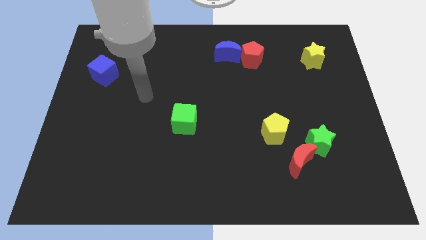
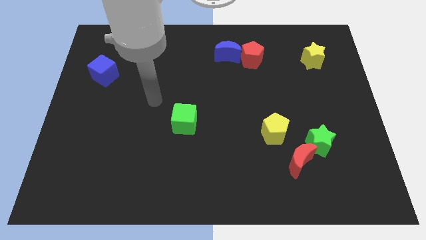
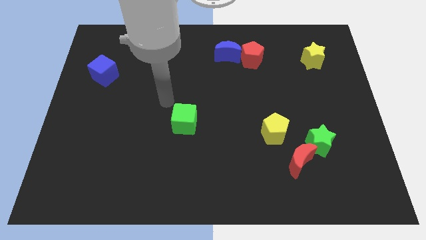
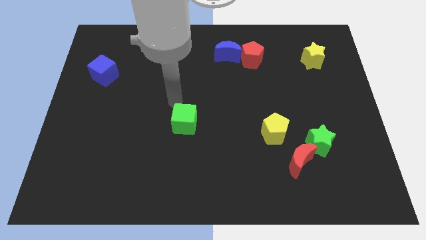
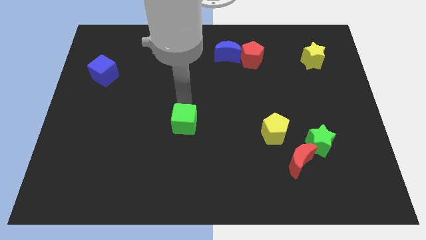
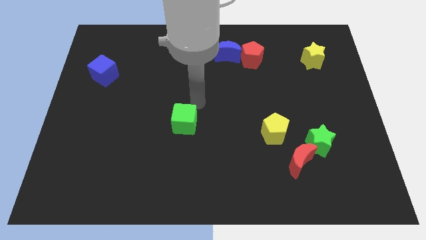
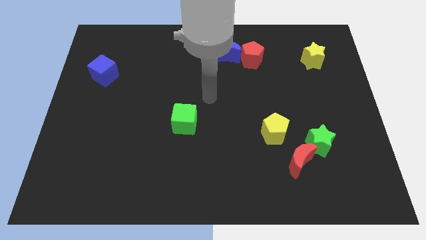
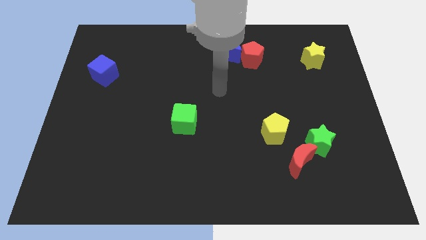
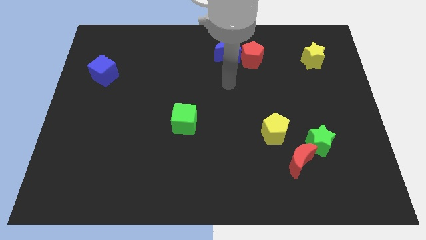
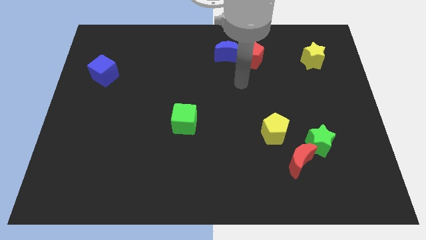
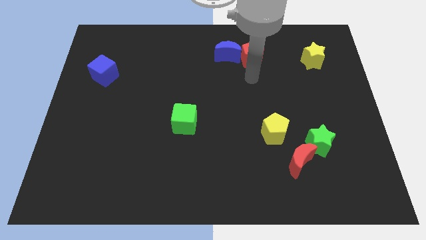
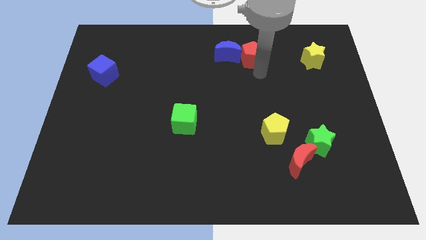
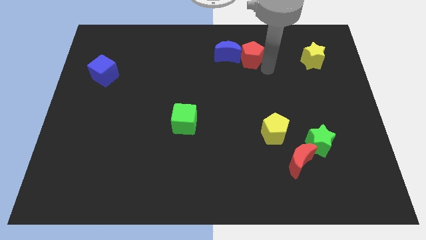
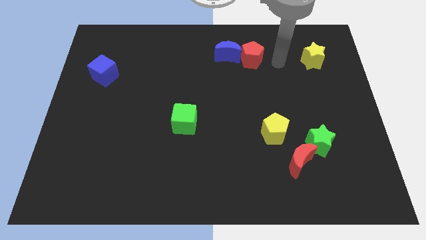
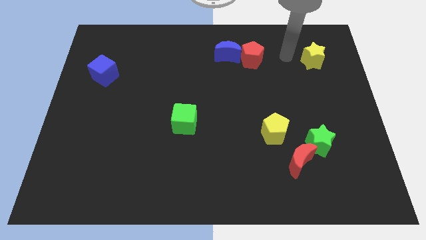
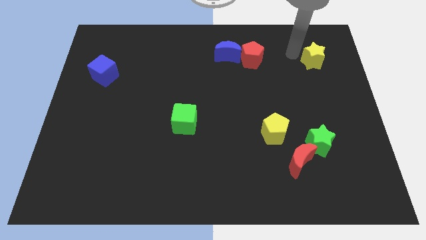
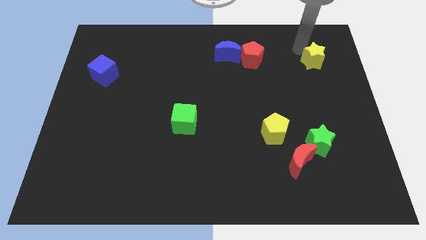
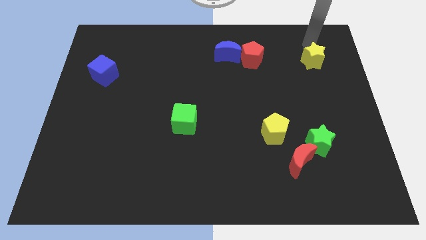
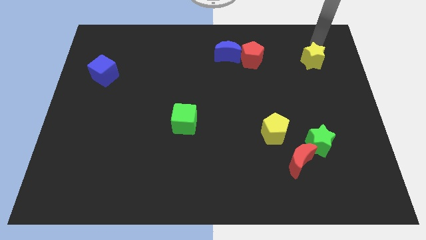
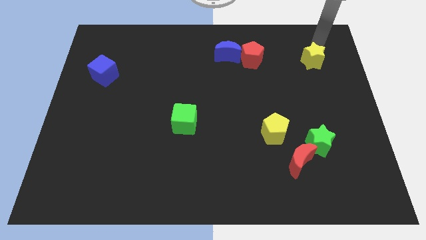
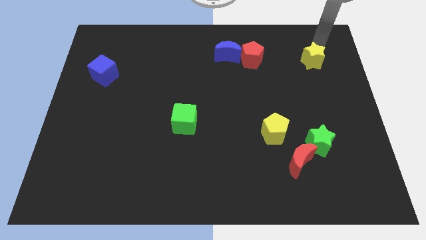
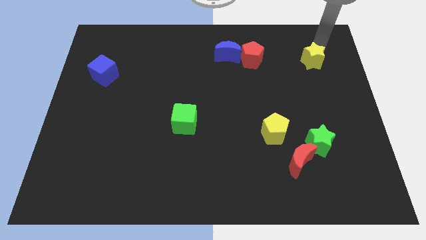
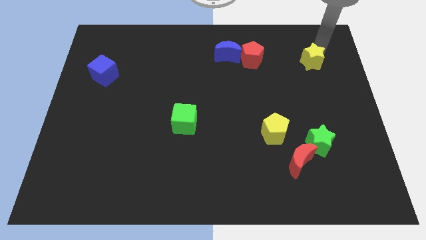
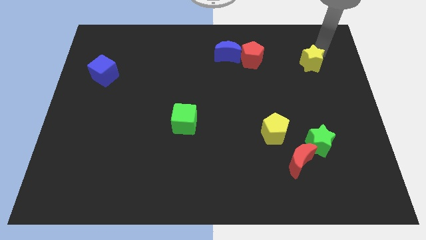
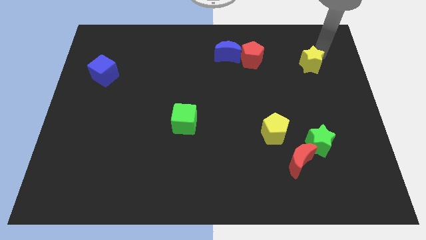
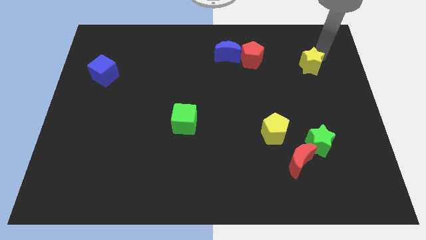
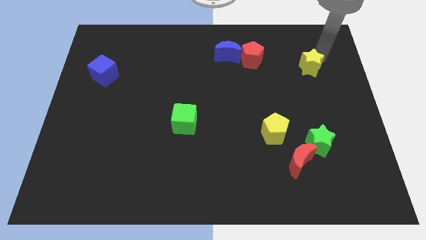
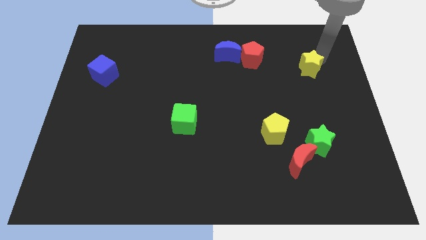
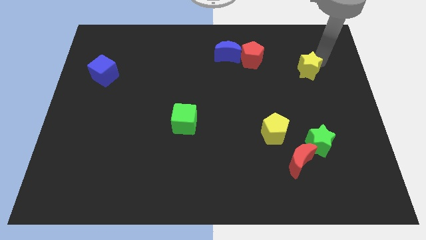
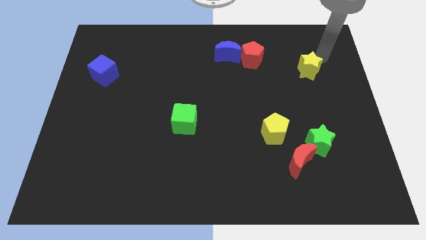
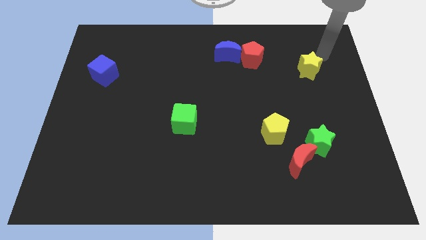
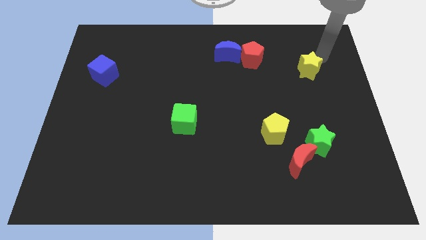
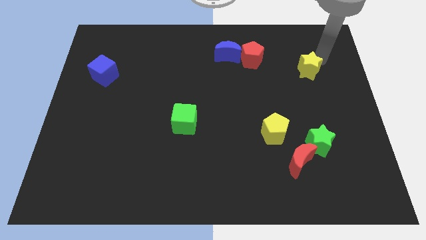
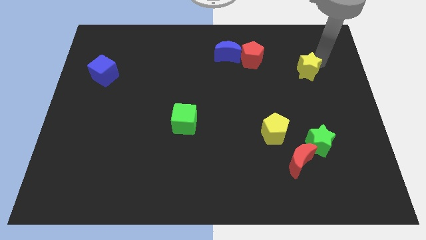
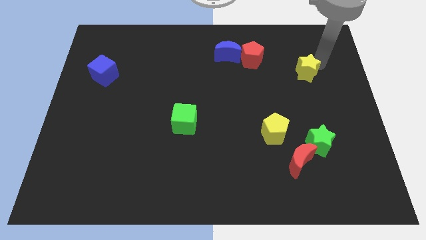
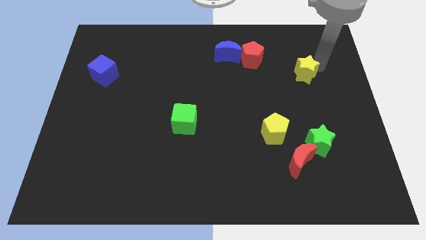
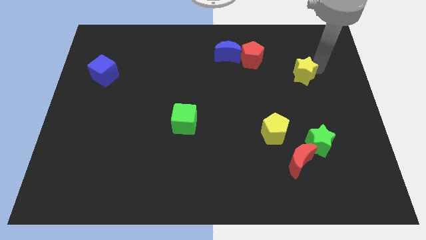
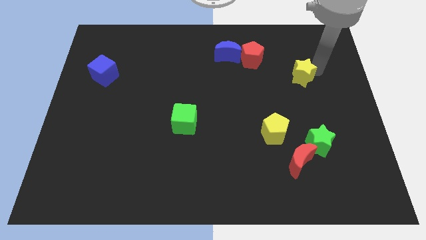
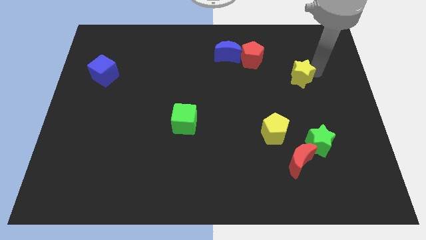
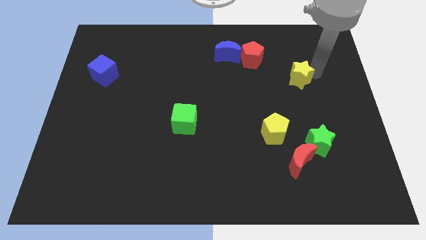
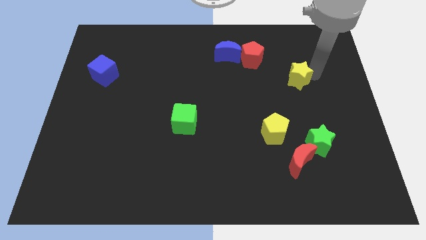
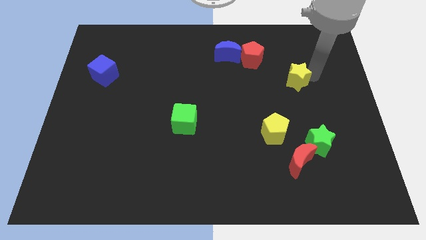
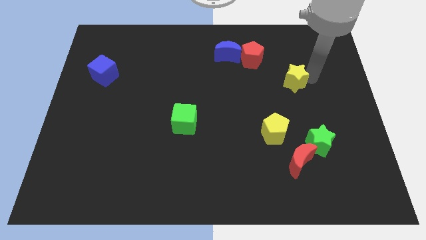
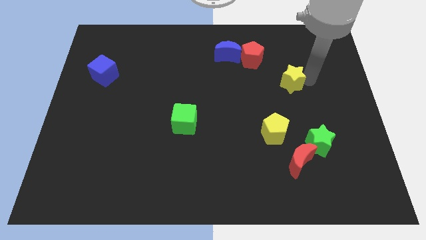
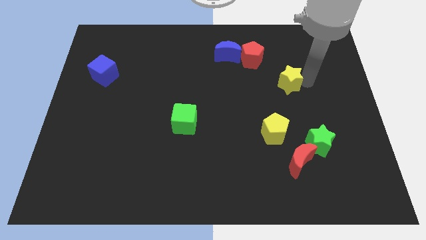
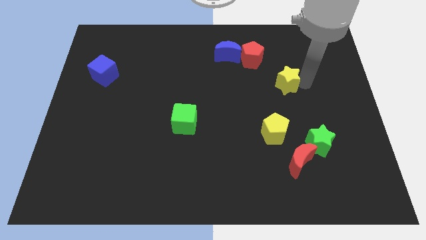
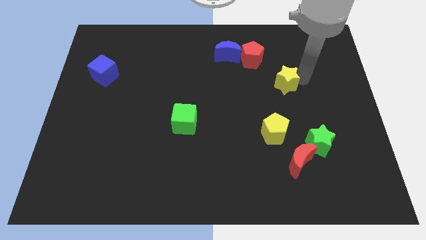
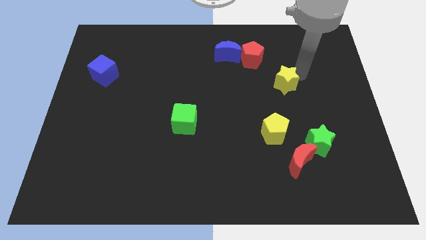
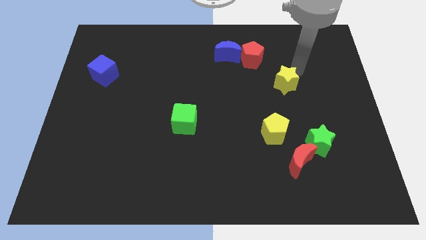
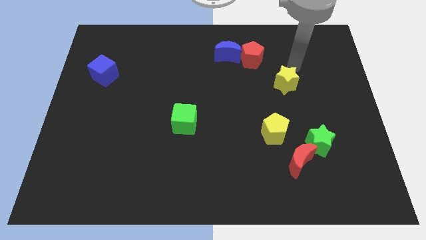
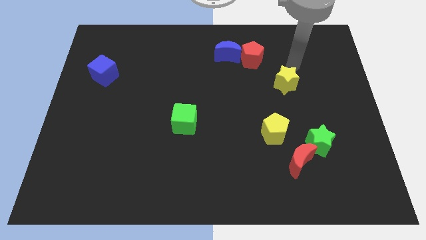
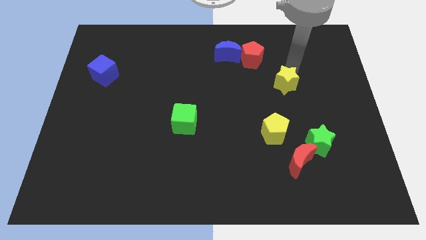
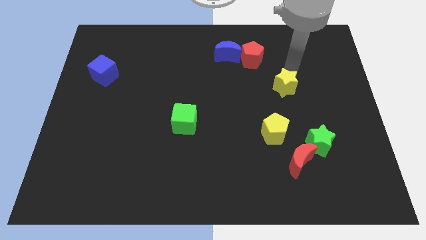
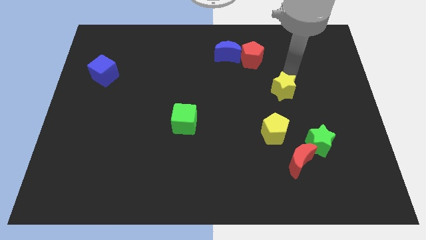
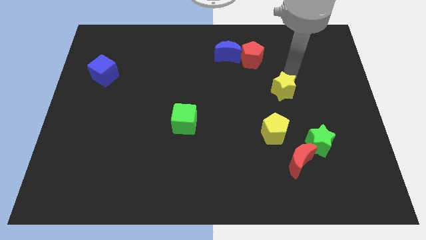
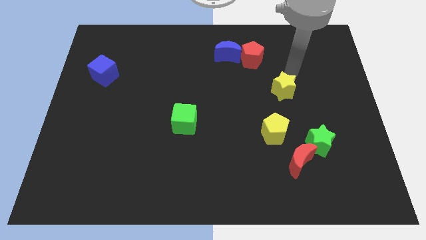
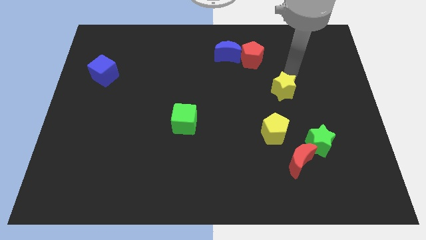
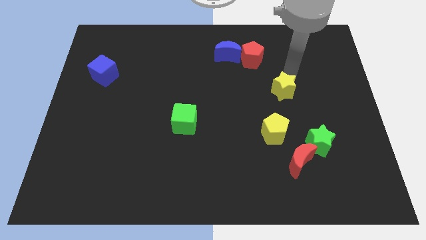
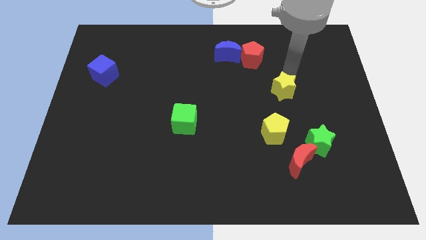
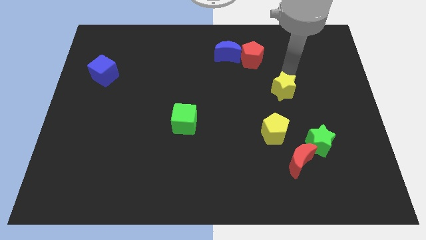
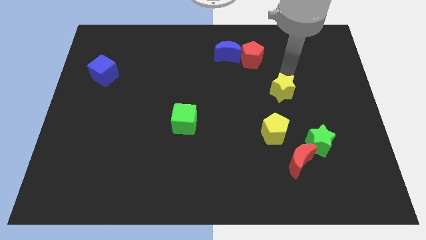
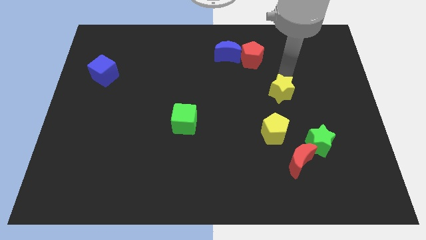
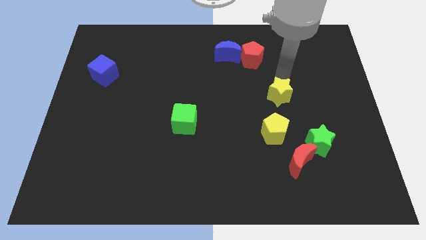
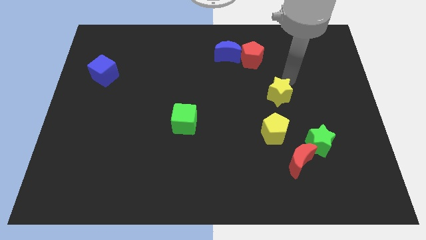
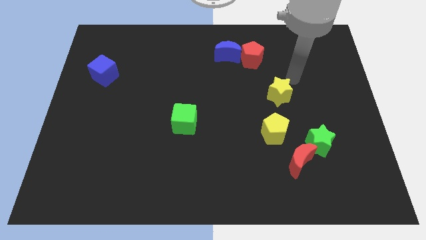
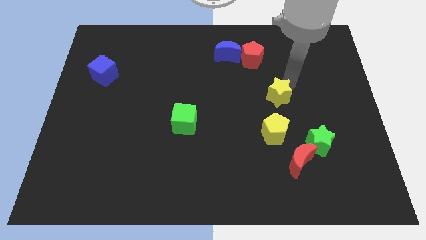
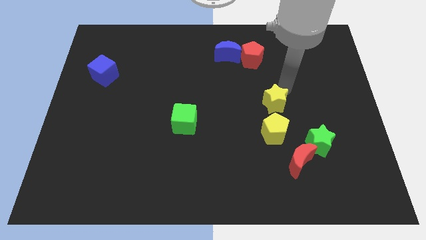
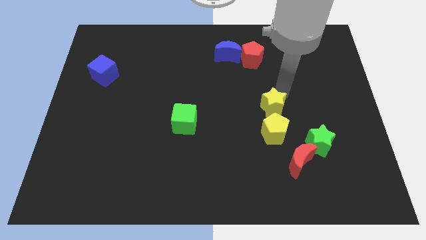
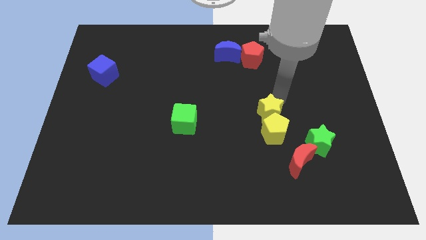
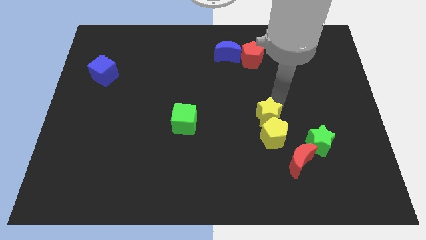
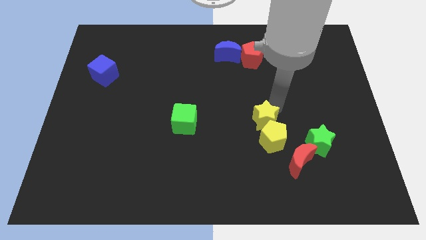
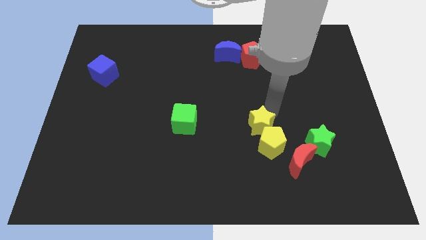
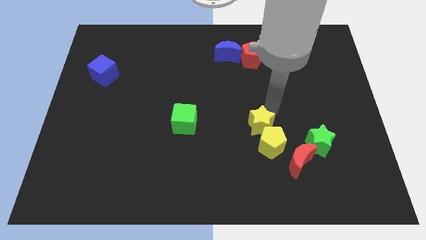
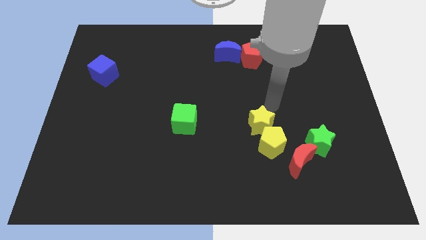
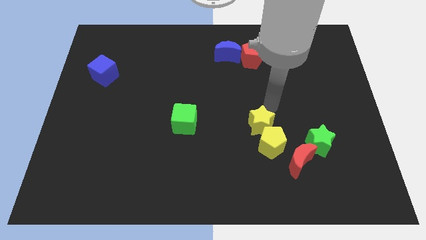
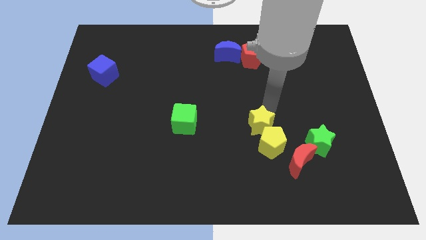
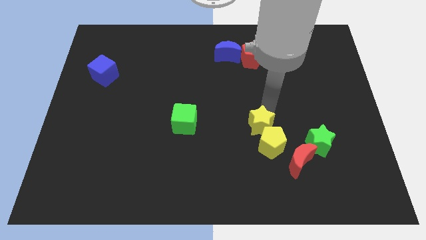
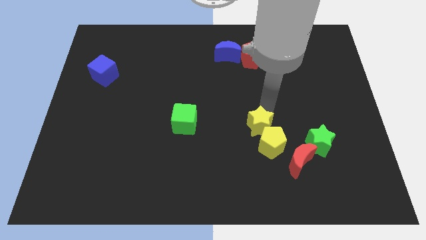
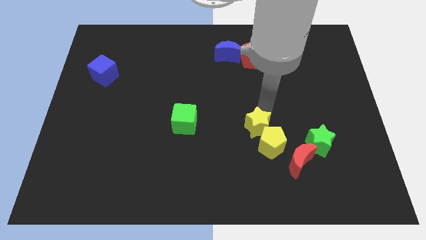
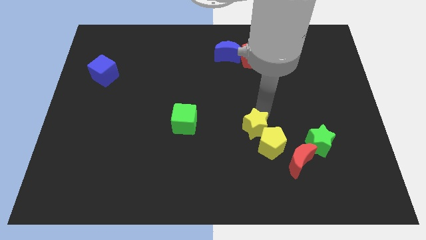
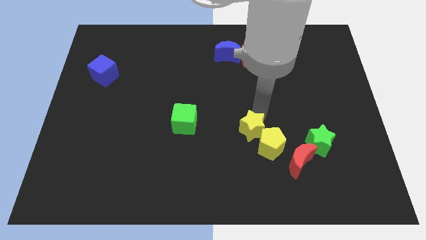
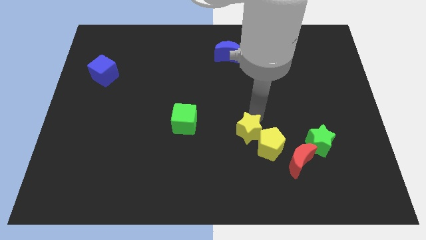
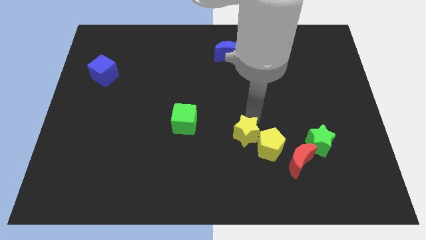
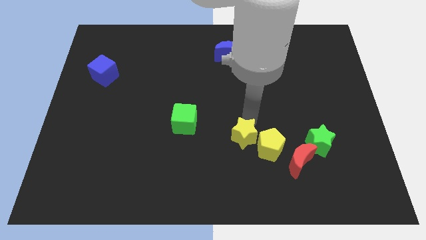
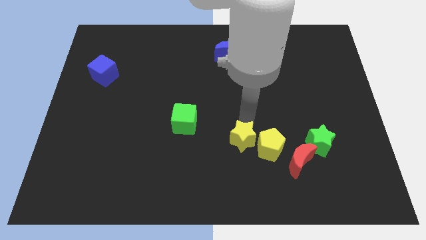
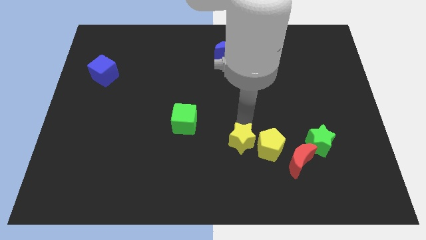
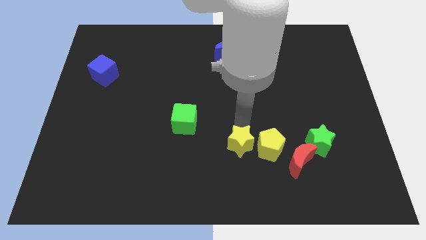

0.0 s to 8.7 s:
put the yellow star to the bottom left of the yellow pentagon
